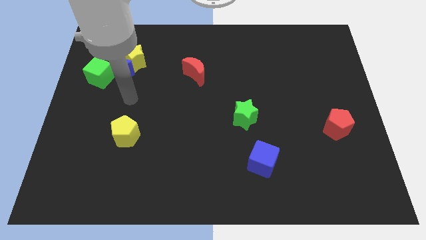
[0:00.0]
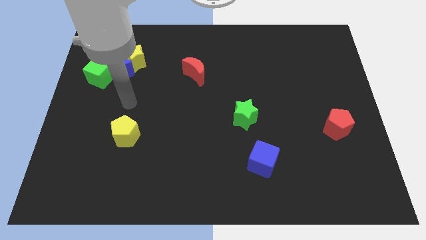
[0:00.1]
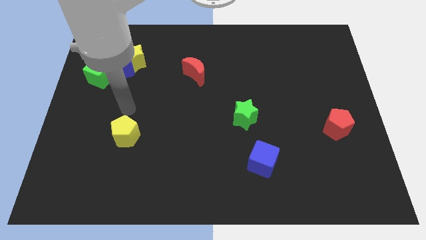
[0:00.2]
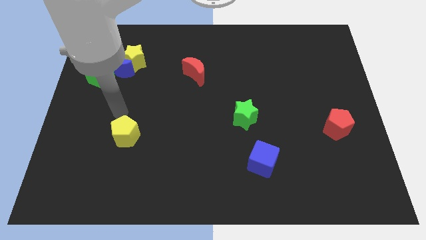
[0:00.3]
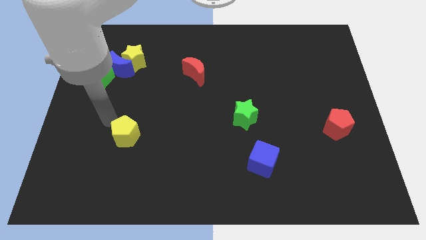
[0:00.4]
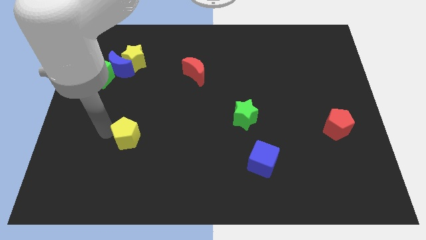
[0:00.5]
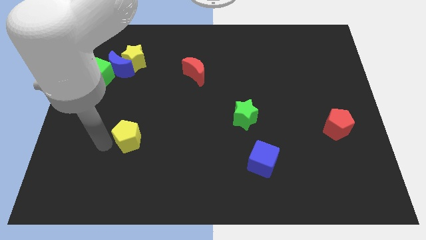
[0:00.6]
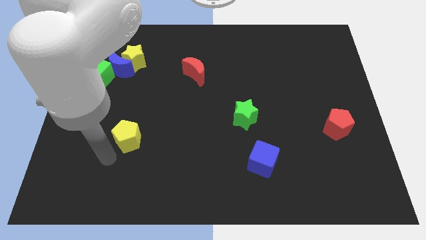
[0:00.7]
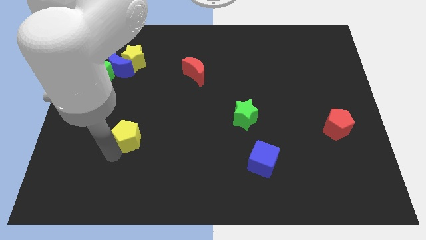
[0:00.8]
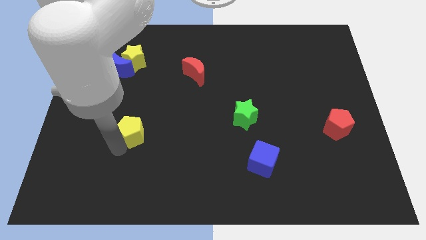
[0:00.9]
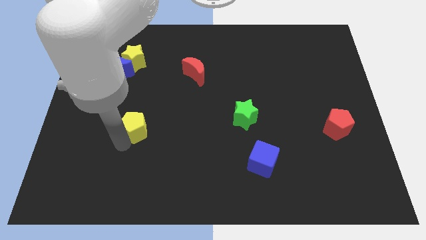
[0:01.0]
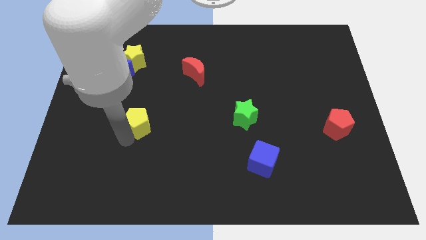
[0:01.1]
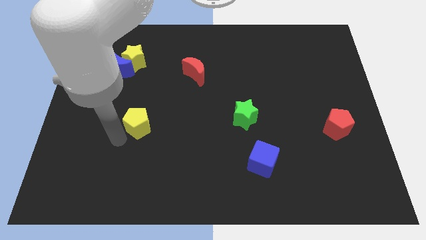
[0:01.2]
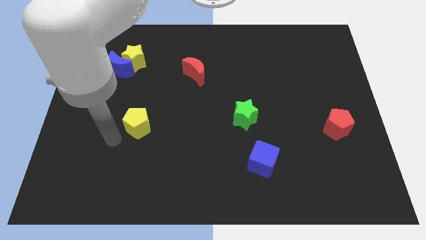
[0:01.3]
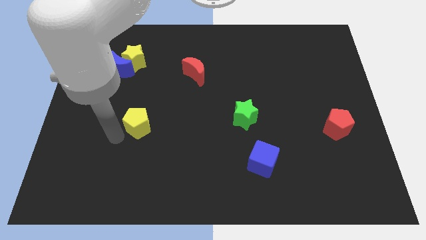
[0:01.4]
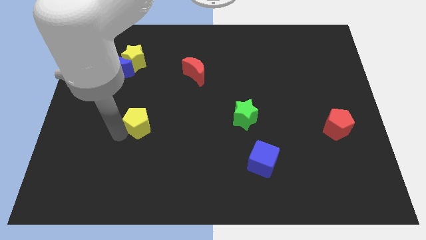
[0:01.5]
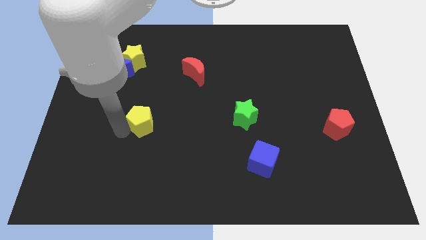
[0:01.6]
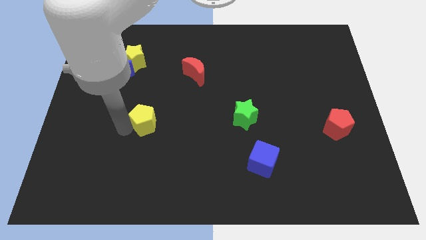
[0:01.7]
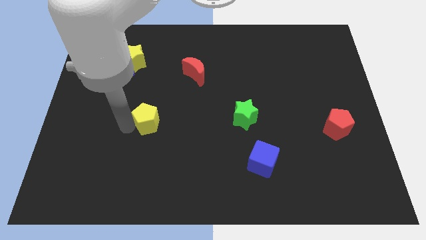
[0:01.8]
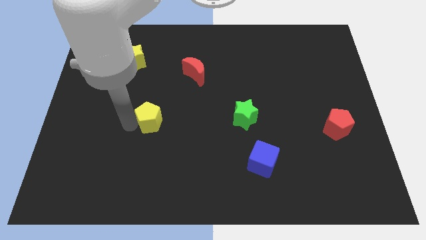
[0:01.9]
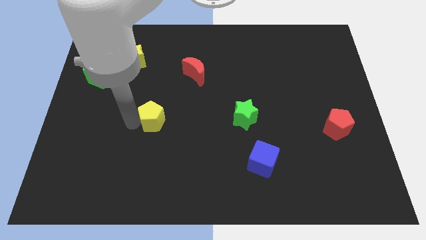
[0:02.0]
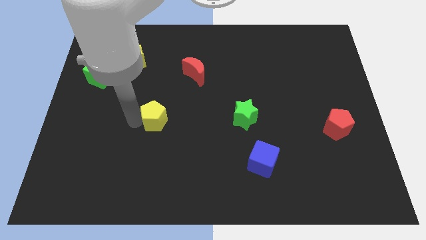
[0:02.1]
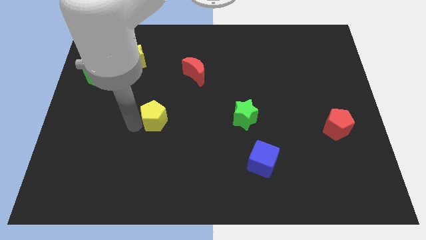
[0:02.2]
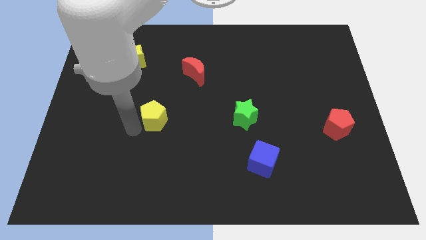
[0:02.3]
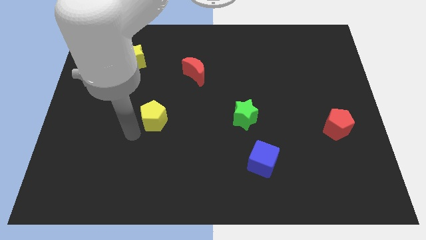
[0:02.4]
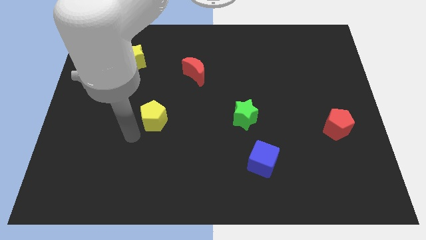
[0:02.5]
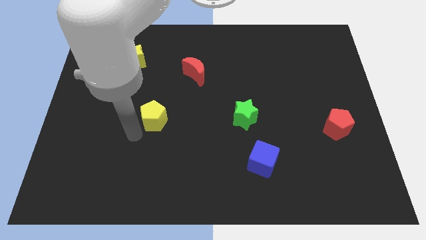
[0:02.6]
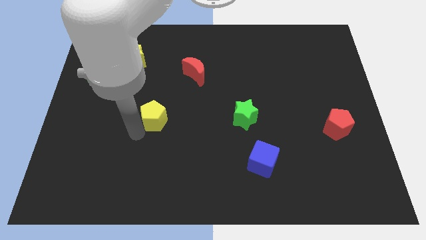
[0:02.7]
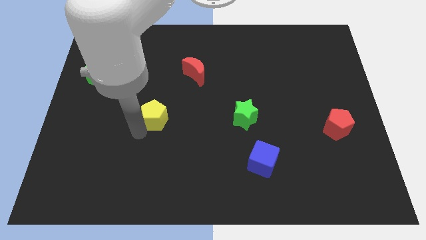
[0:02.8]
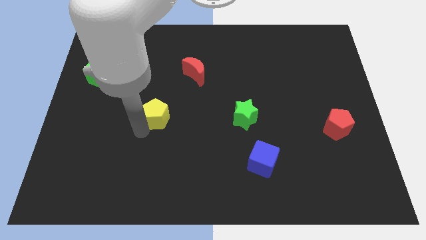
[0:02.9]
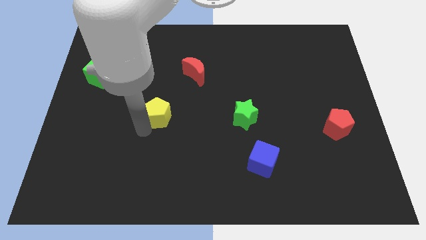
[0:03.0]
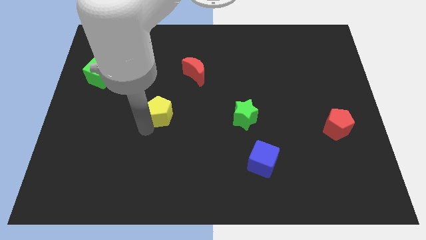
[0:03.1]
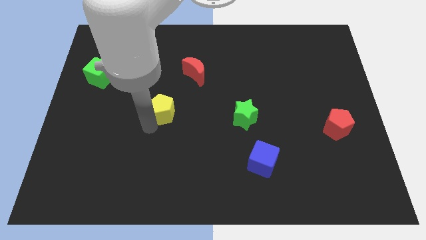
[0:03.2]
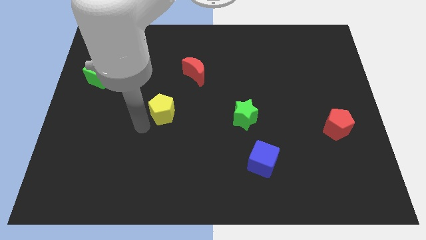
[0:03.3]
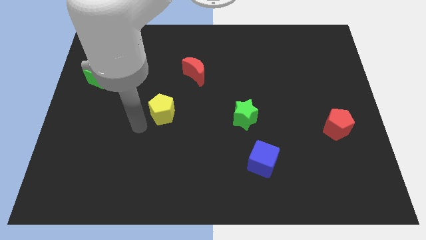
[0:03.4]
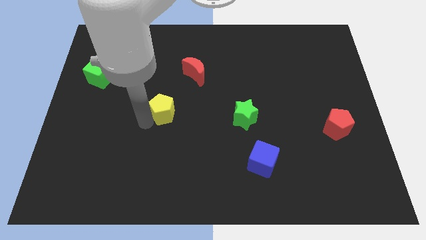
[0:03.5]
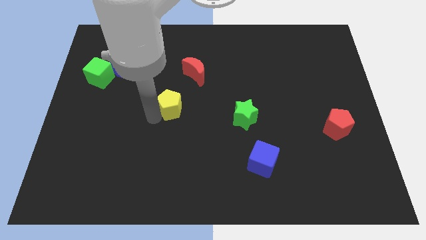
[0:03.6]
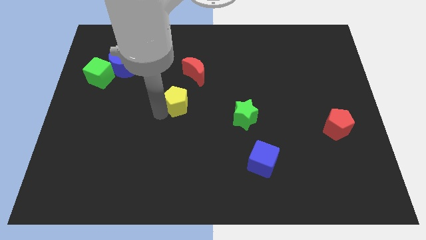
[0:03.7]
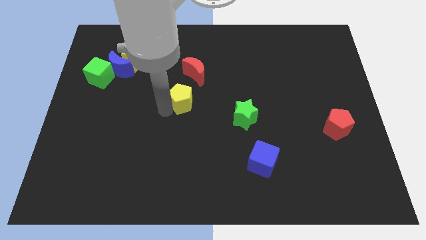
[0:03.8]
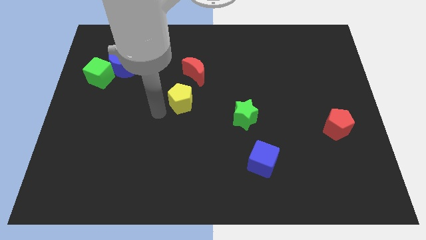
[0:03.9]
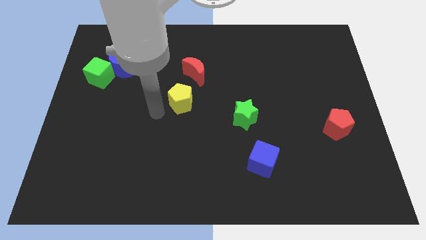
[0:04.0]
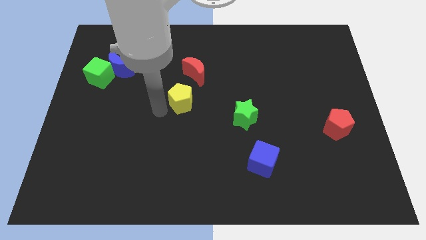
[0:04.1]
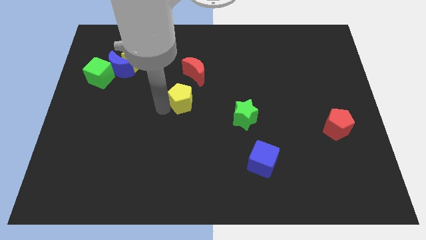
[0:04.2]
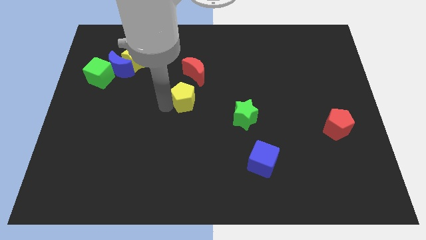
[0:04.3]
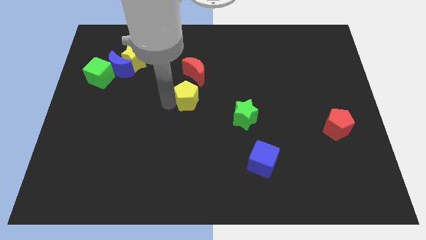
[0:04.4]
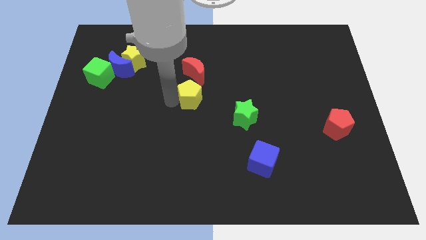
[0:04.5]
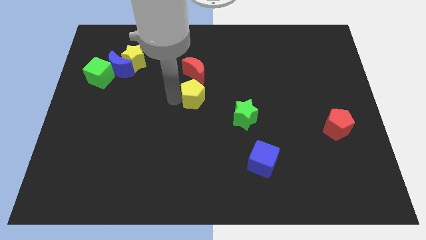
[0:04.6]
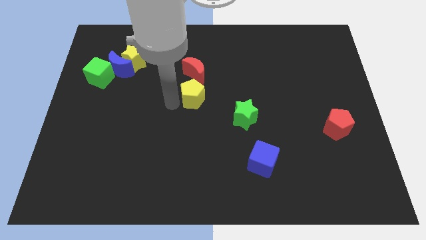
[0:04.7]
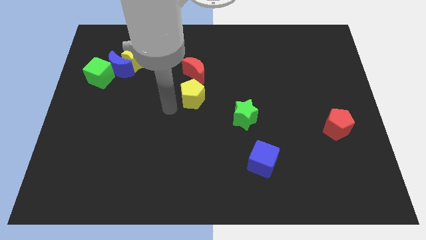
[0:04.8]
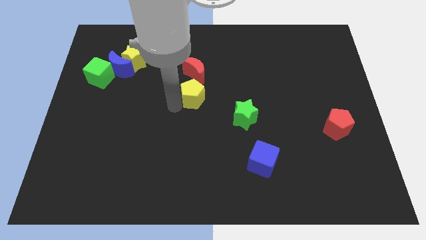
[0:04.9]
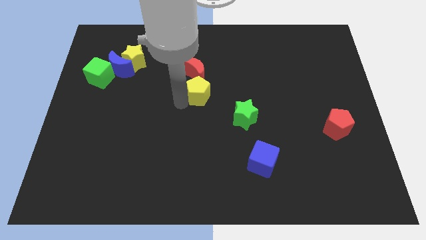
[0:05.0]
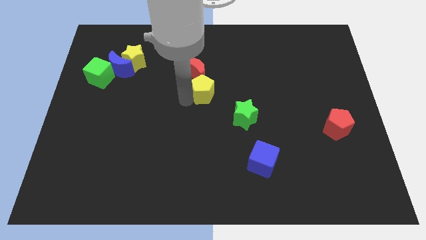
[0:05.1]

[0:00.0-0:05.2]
slide the yellow pentagon upwards and right

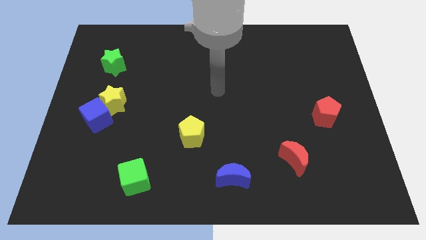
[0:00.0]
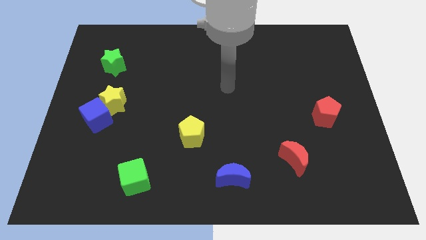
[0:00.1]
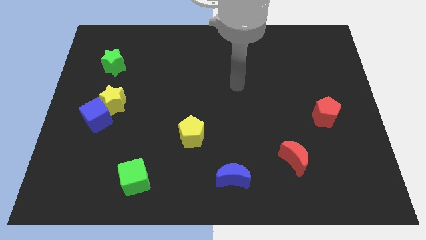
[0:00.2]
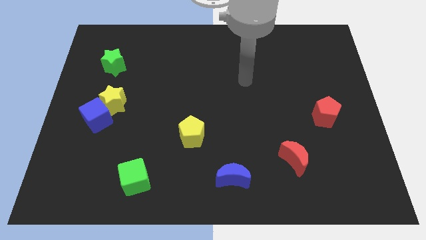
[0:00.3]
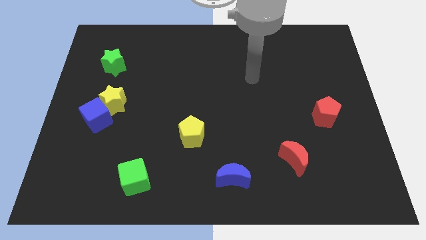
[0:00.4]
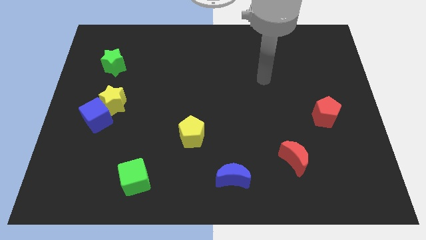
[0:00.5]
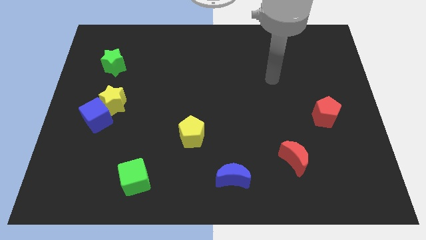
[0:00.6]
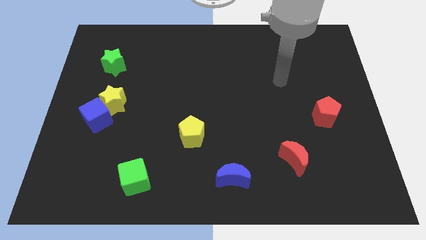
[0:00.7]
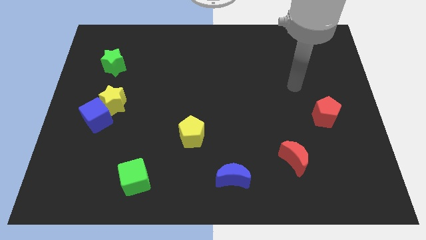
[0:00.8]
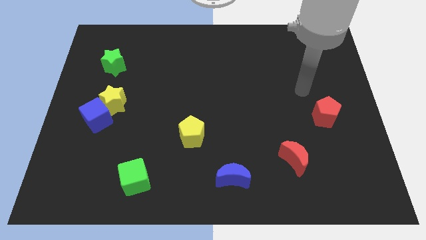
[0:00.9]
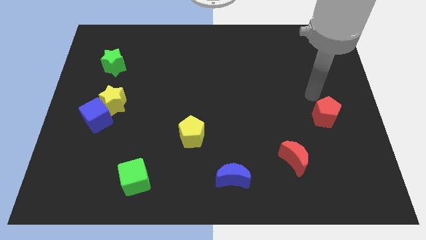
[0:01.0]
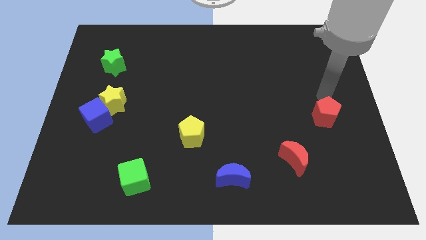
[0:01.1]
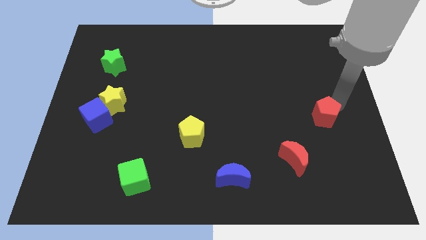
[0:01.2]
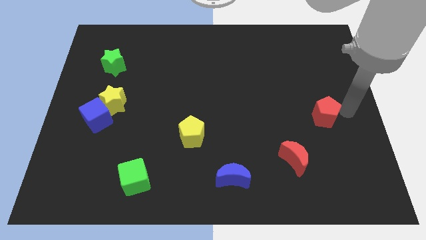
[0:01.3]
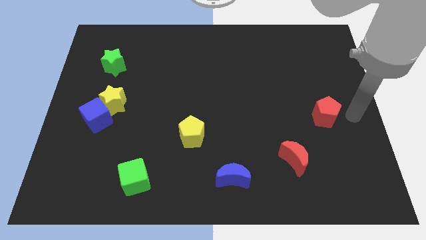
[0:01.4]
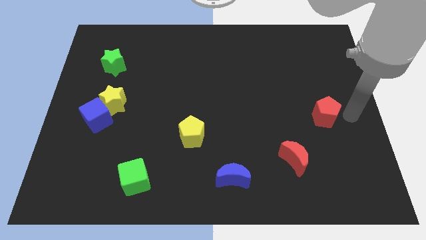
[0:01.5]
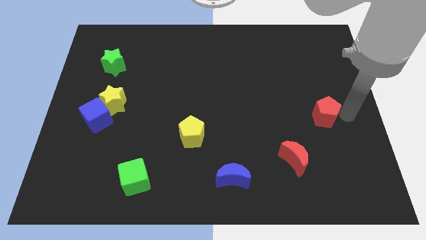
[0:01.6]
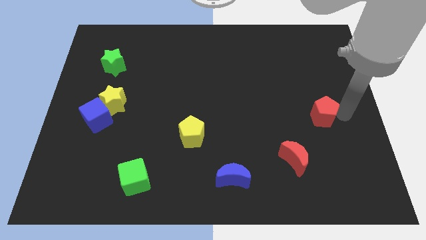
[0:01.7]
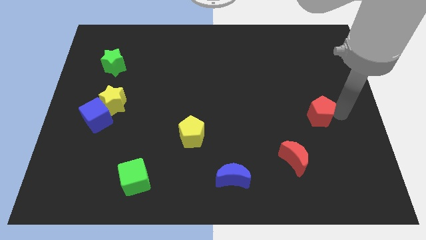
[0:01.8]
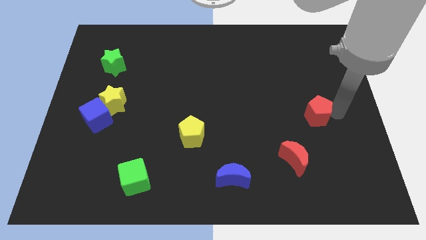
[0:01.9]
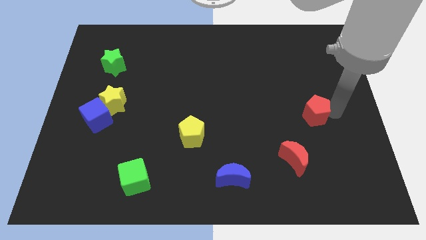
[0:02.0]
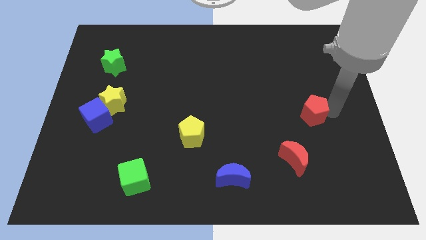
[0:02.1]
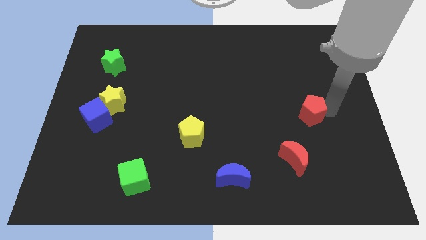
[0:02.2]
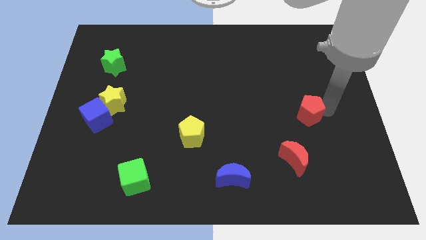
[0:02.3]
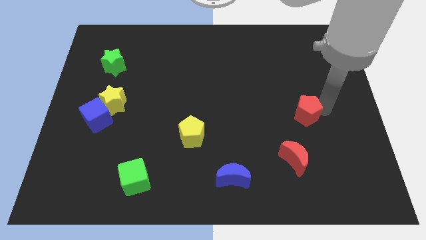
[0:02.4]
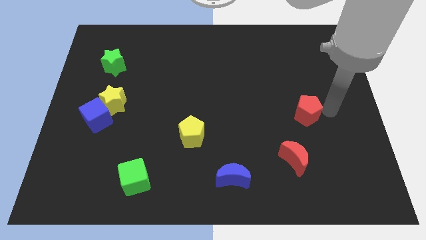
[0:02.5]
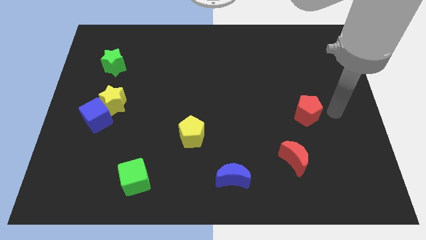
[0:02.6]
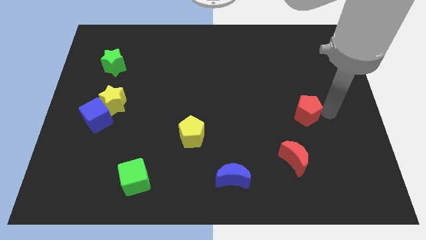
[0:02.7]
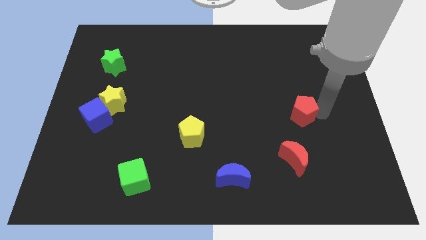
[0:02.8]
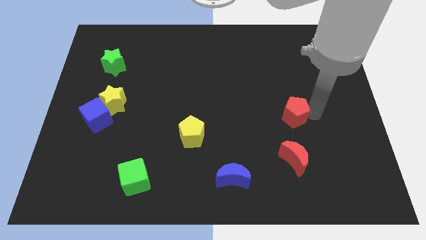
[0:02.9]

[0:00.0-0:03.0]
slide the red pentagon left slightly
